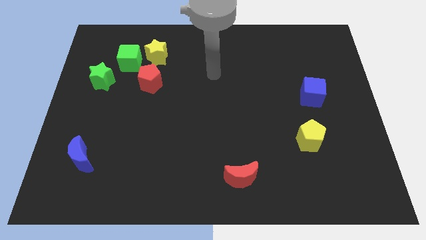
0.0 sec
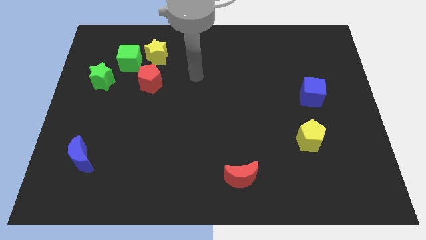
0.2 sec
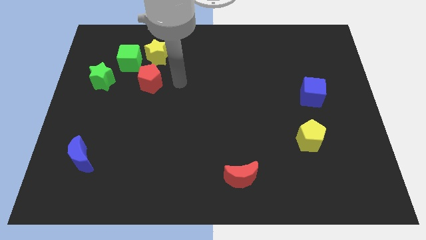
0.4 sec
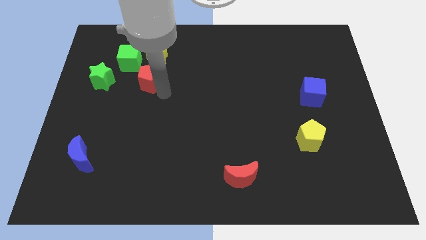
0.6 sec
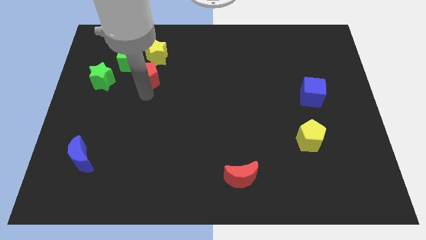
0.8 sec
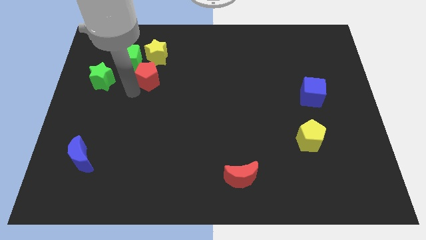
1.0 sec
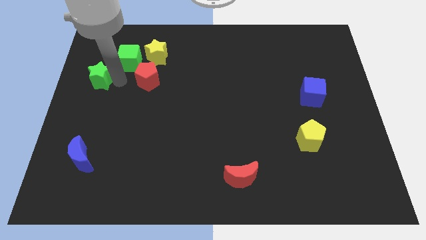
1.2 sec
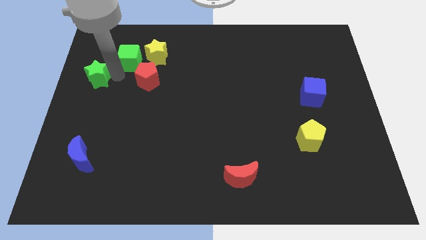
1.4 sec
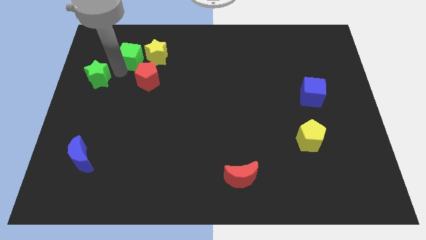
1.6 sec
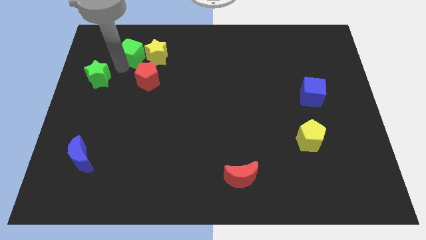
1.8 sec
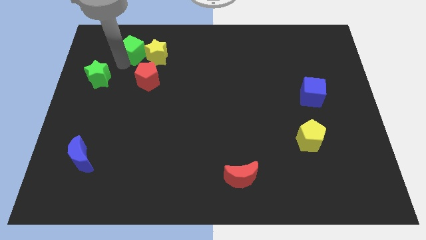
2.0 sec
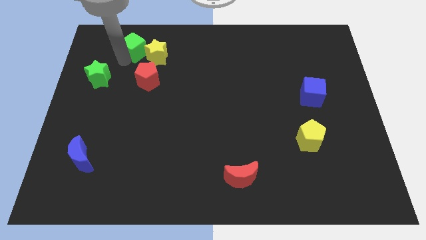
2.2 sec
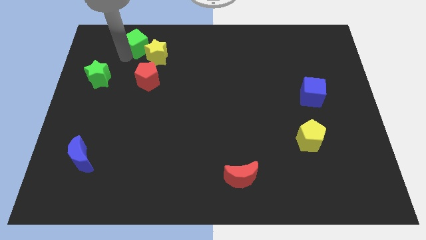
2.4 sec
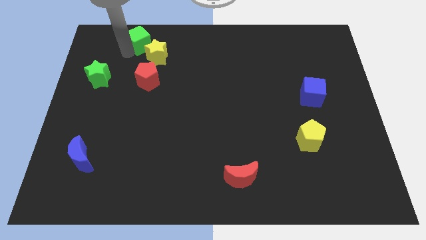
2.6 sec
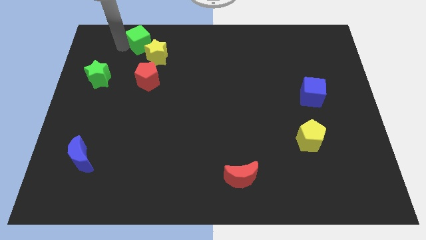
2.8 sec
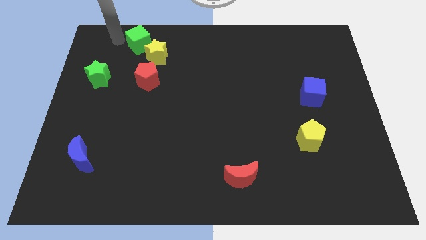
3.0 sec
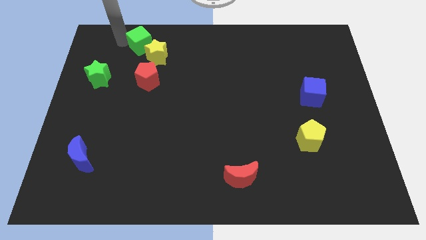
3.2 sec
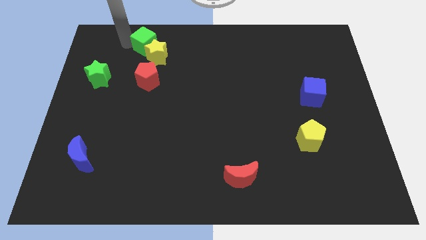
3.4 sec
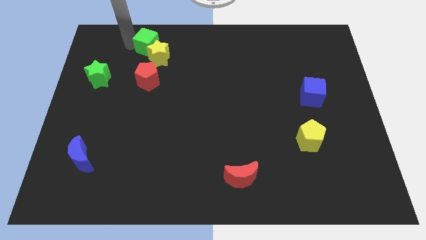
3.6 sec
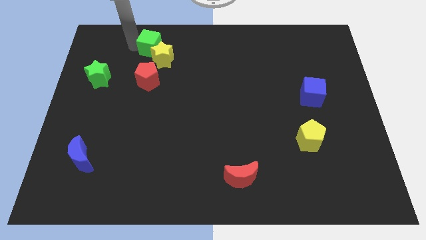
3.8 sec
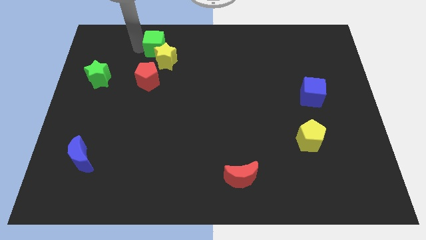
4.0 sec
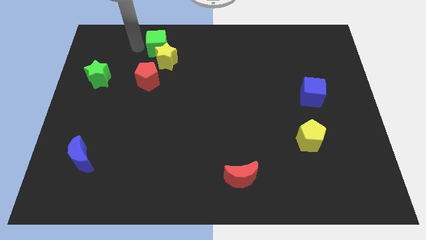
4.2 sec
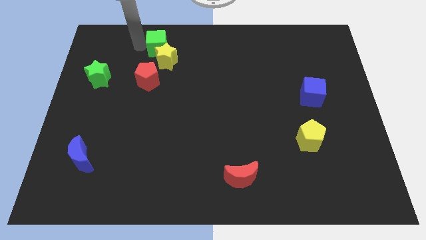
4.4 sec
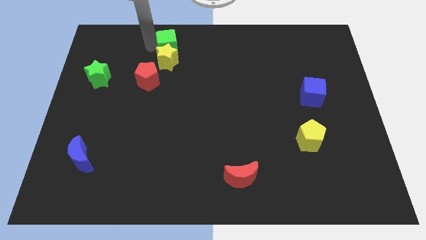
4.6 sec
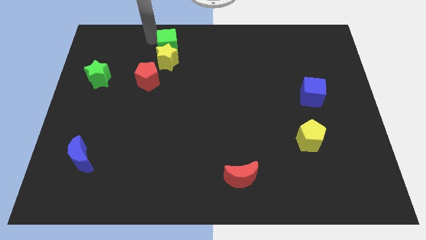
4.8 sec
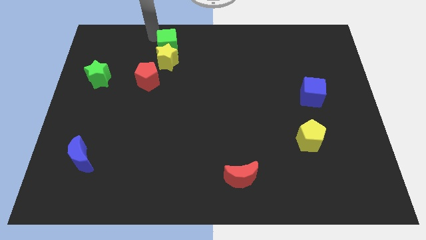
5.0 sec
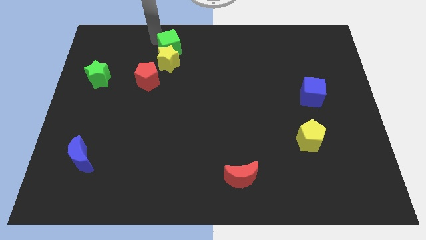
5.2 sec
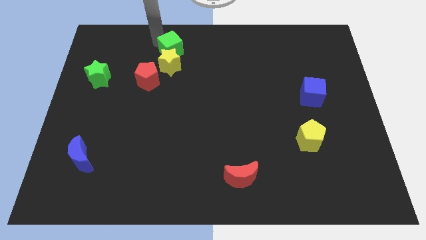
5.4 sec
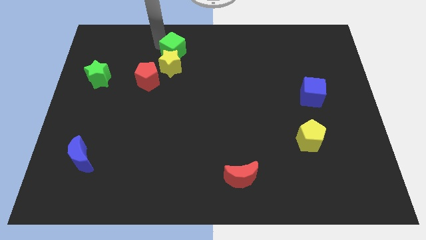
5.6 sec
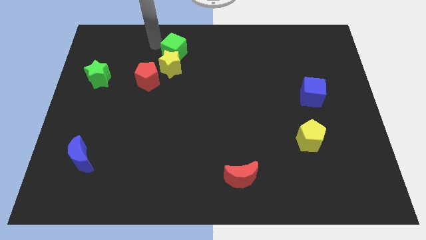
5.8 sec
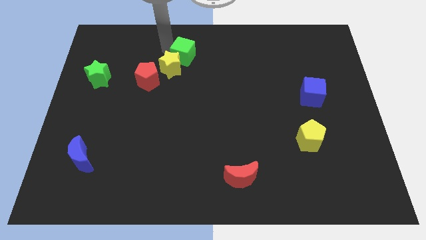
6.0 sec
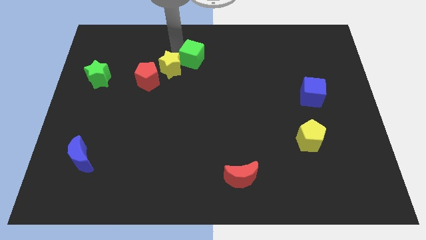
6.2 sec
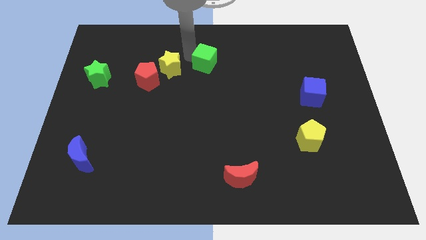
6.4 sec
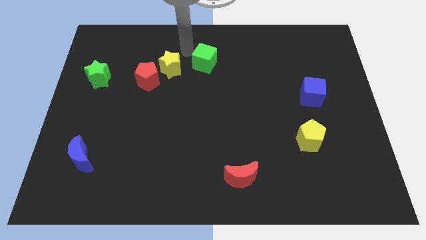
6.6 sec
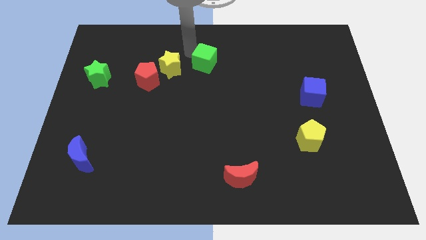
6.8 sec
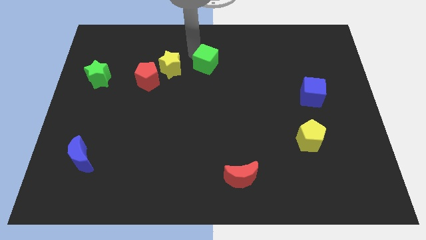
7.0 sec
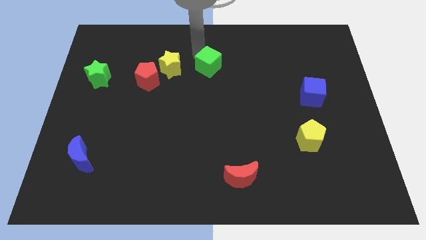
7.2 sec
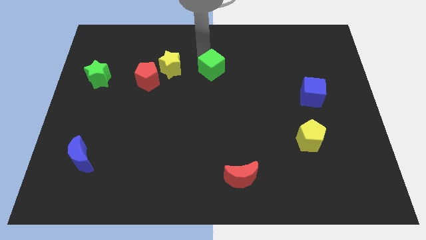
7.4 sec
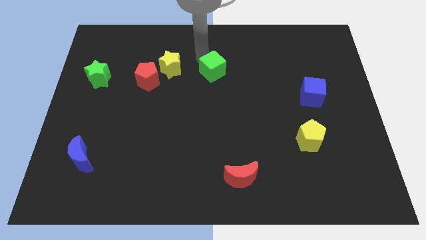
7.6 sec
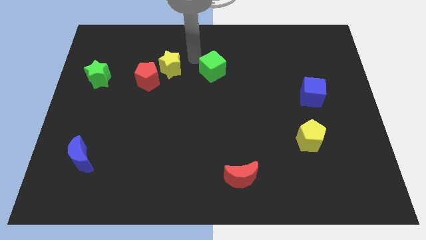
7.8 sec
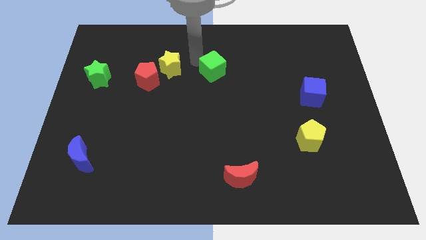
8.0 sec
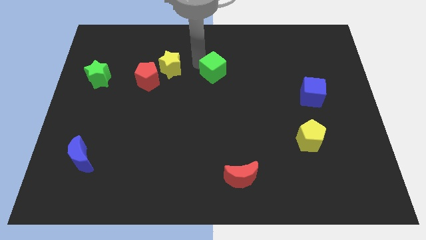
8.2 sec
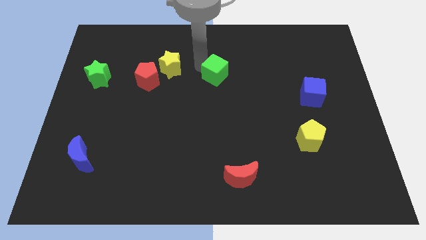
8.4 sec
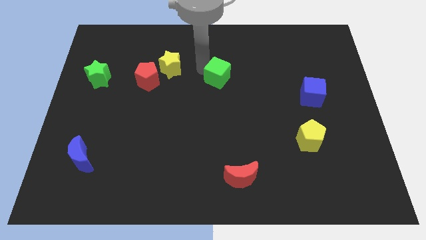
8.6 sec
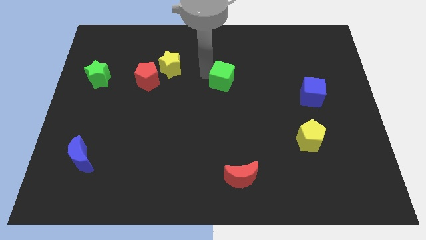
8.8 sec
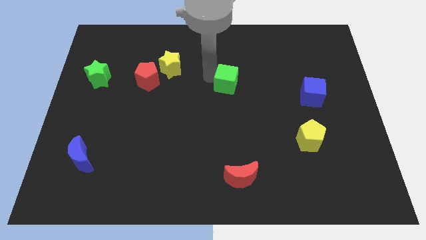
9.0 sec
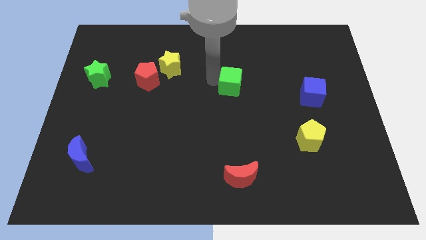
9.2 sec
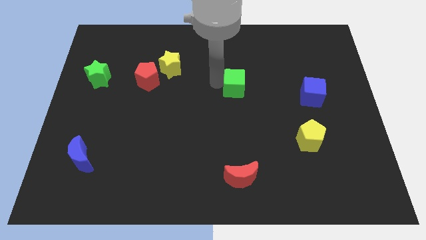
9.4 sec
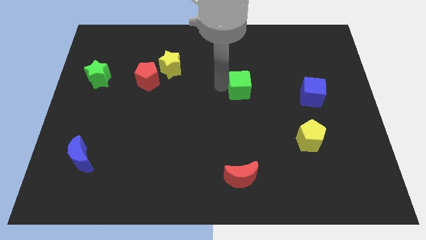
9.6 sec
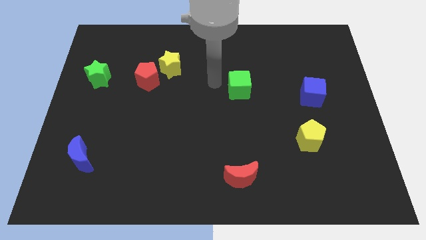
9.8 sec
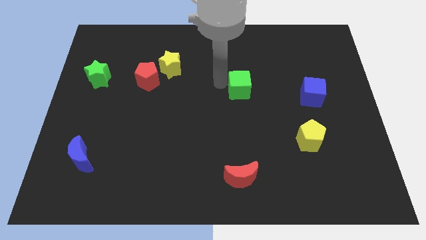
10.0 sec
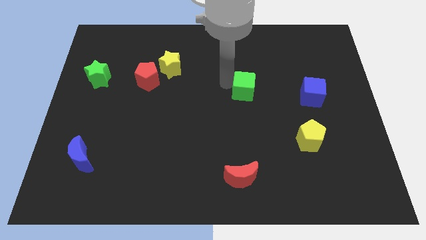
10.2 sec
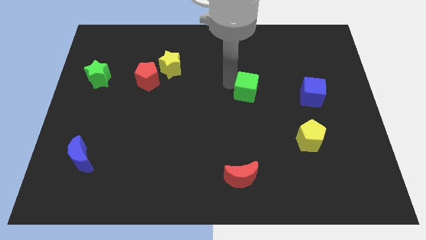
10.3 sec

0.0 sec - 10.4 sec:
push the green cube to the left of the blue cube

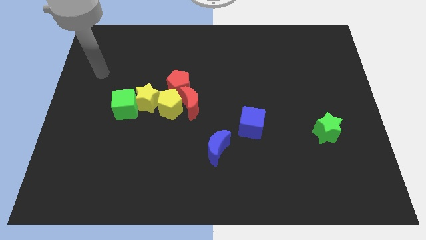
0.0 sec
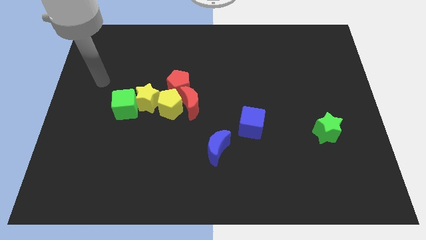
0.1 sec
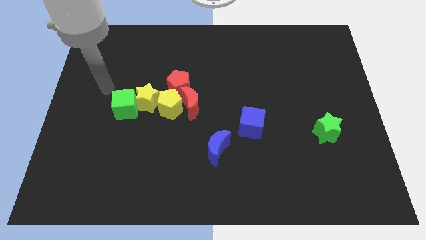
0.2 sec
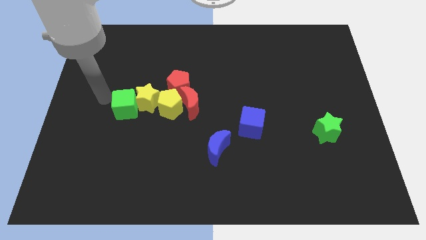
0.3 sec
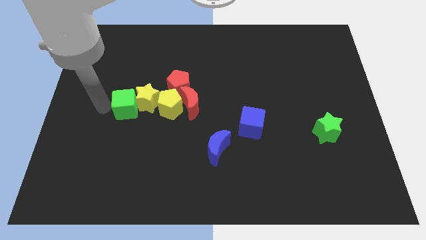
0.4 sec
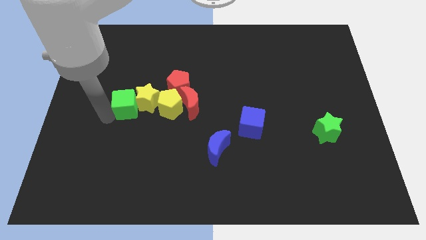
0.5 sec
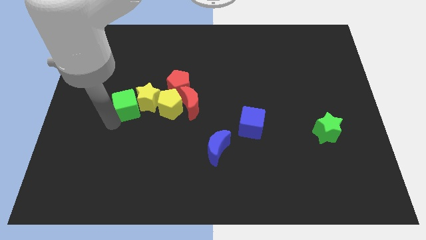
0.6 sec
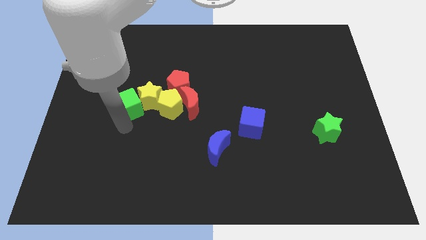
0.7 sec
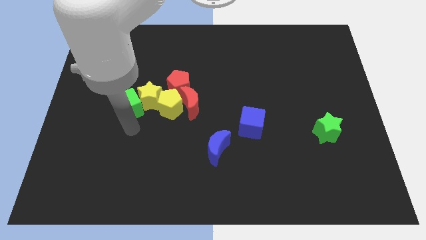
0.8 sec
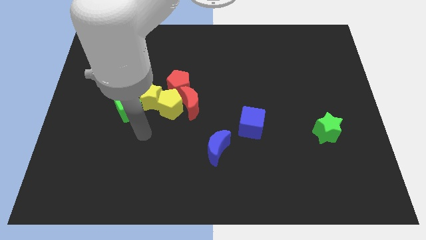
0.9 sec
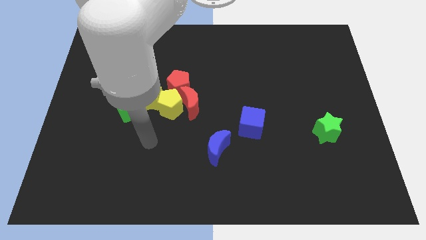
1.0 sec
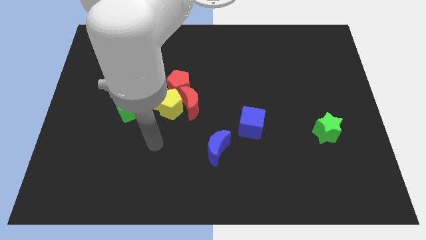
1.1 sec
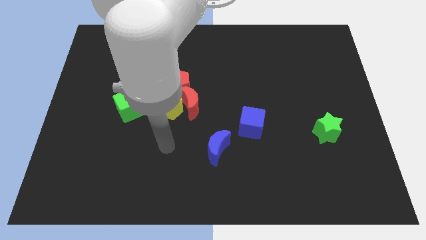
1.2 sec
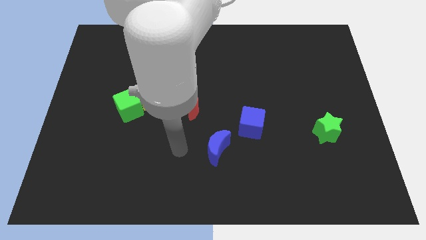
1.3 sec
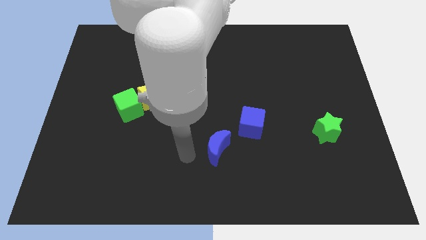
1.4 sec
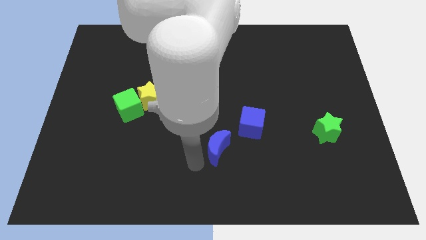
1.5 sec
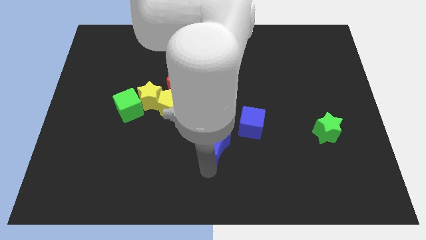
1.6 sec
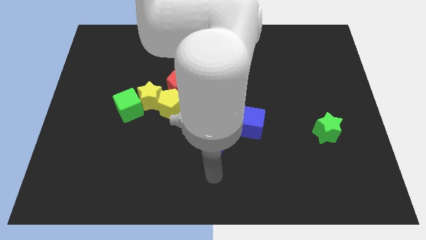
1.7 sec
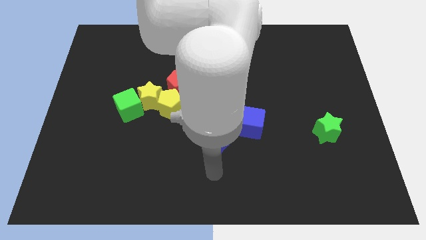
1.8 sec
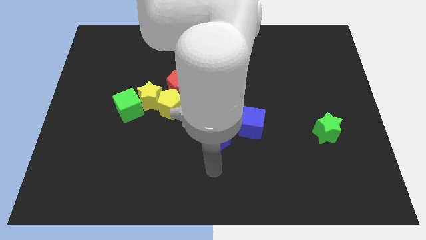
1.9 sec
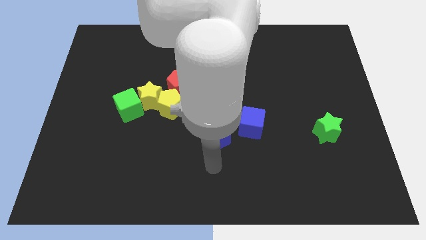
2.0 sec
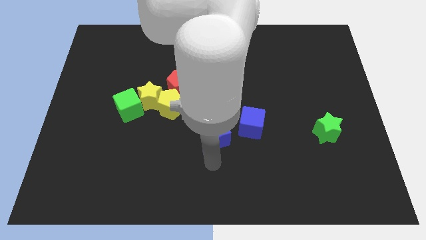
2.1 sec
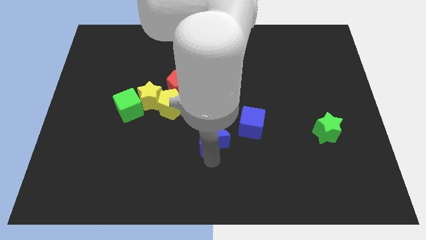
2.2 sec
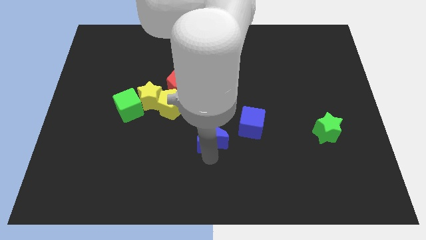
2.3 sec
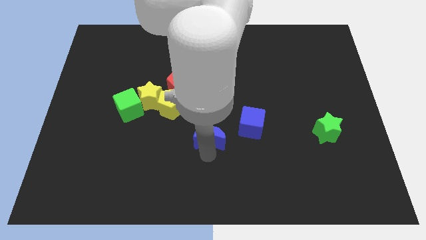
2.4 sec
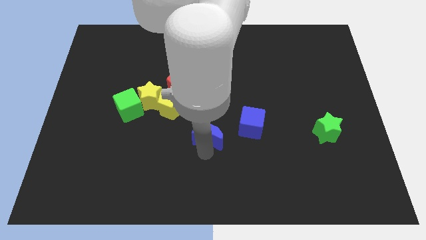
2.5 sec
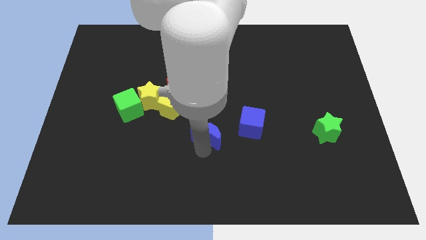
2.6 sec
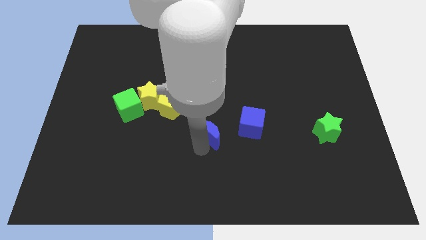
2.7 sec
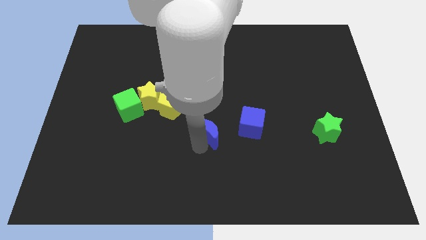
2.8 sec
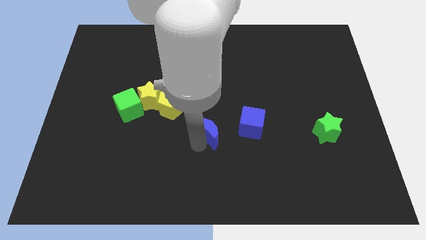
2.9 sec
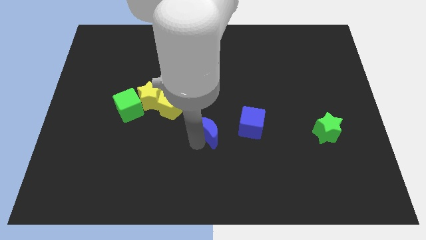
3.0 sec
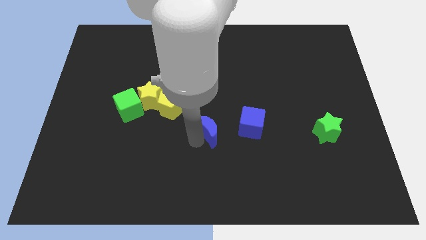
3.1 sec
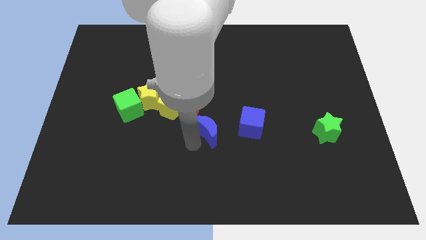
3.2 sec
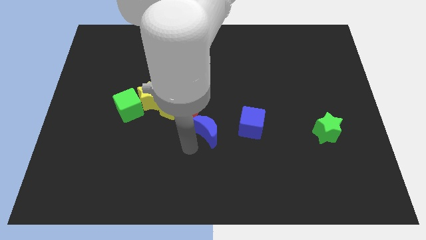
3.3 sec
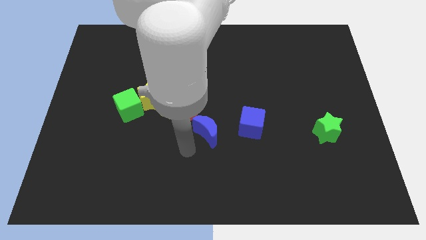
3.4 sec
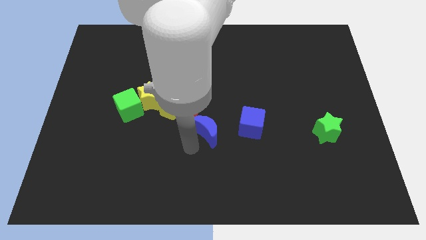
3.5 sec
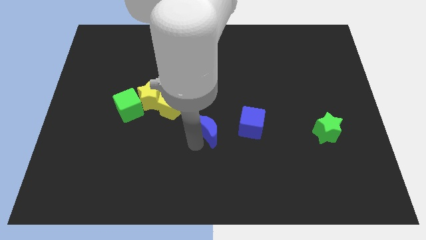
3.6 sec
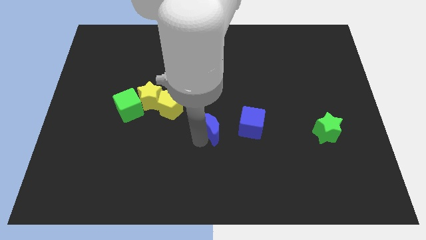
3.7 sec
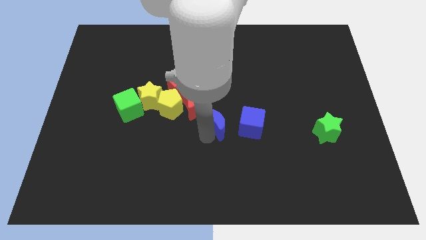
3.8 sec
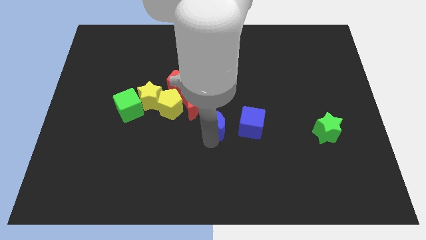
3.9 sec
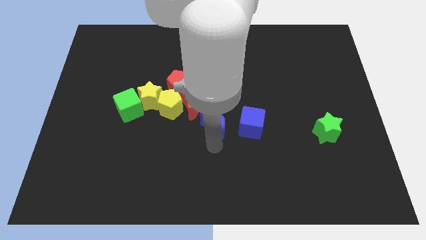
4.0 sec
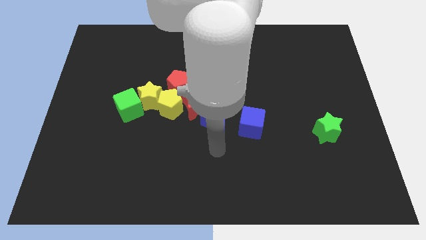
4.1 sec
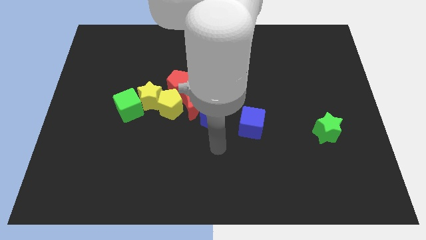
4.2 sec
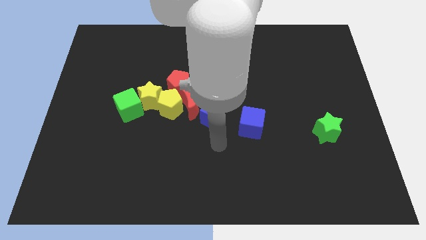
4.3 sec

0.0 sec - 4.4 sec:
put the blue moon to the right of the yellow pentagon
